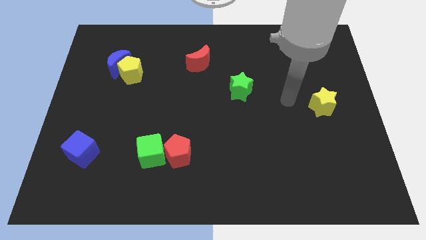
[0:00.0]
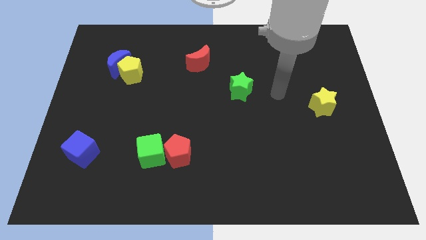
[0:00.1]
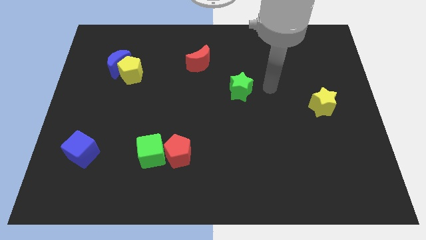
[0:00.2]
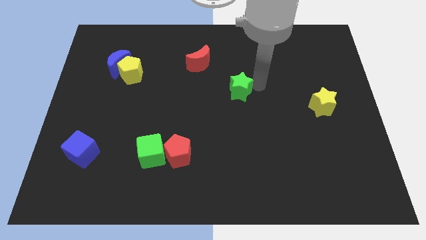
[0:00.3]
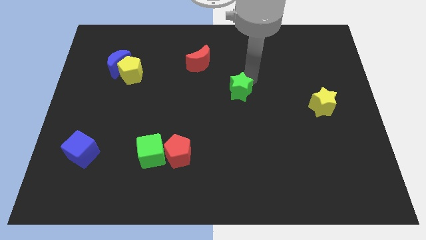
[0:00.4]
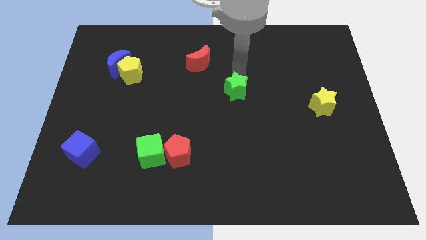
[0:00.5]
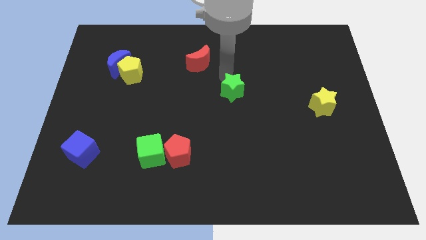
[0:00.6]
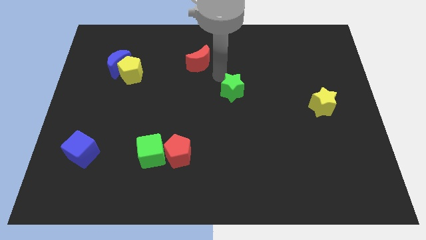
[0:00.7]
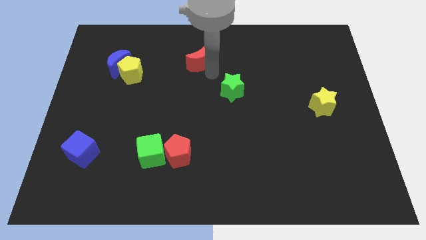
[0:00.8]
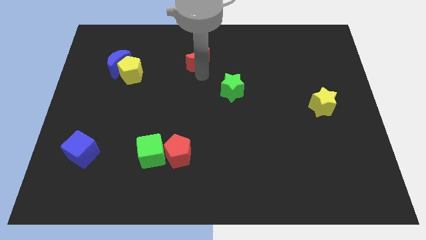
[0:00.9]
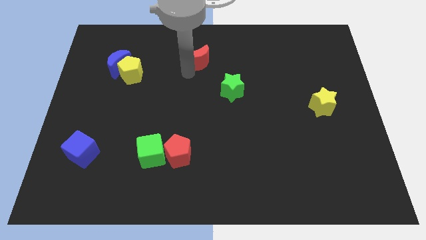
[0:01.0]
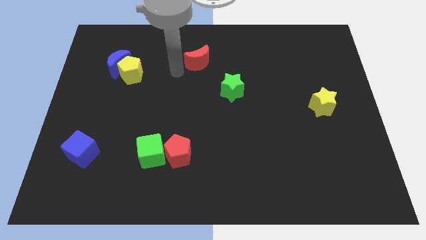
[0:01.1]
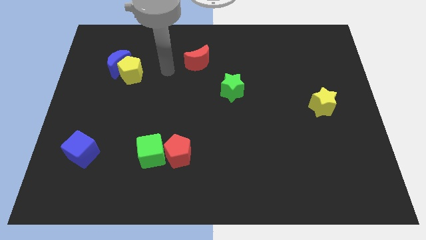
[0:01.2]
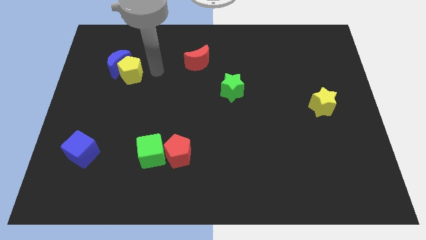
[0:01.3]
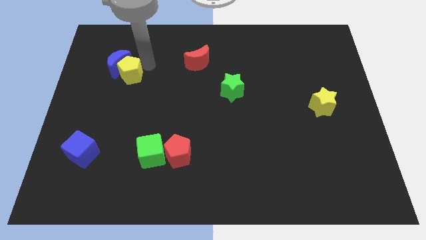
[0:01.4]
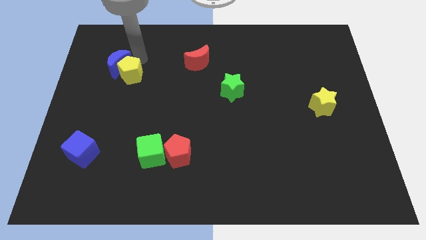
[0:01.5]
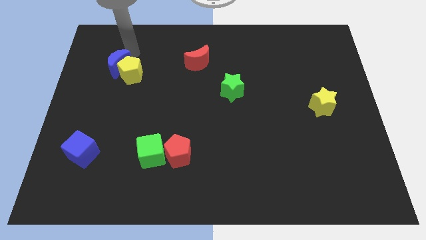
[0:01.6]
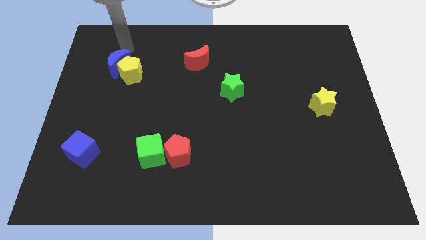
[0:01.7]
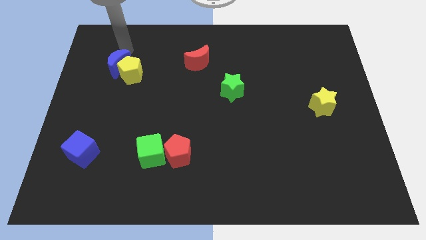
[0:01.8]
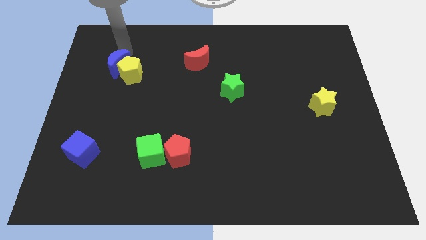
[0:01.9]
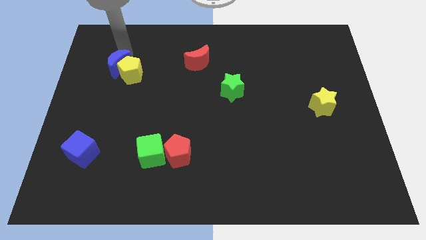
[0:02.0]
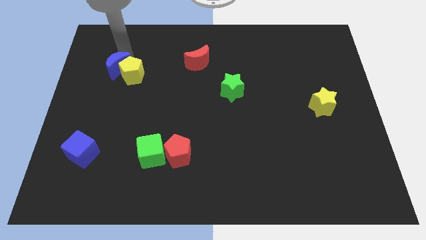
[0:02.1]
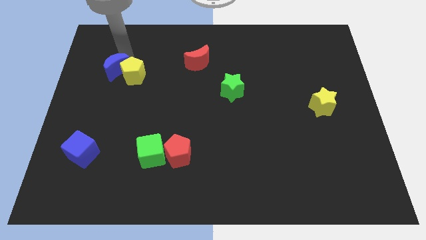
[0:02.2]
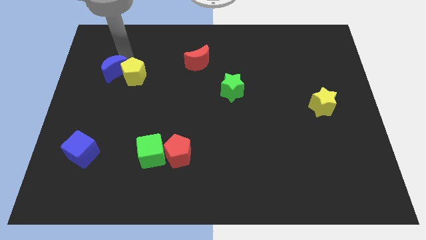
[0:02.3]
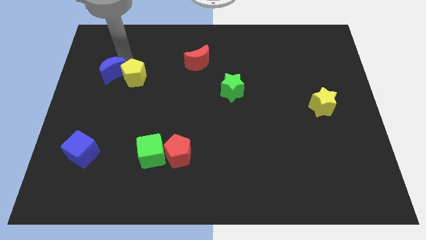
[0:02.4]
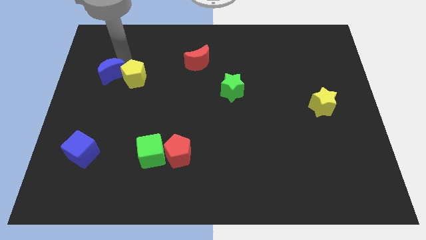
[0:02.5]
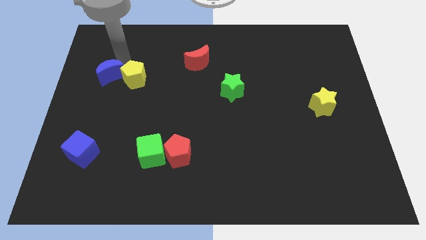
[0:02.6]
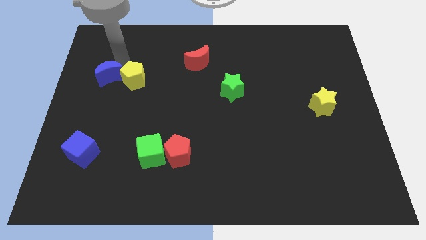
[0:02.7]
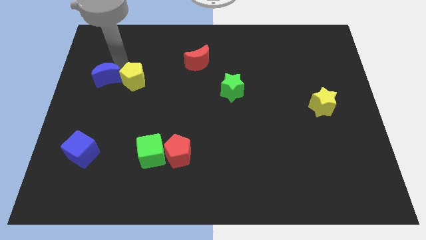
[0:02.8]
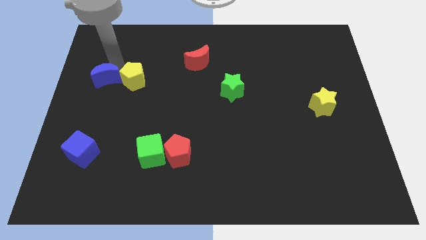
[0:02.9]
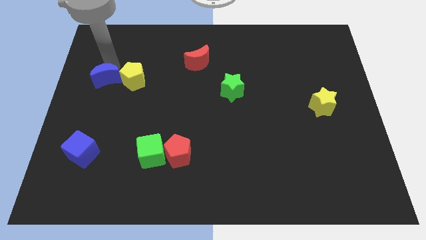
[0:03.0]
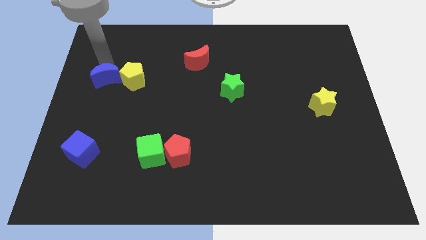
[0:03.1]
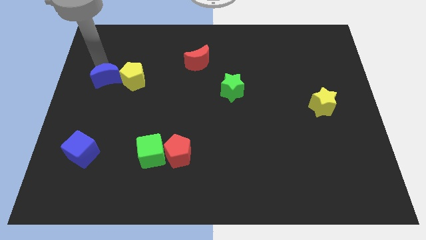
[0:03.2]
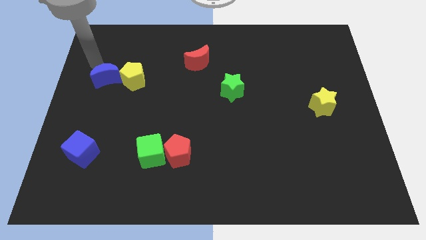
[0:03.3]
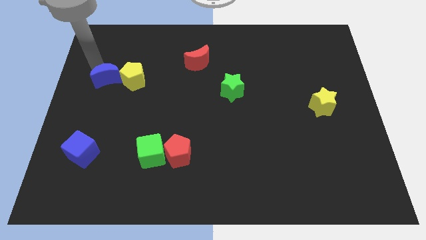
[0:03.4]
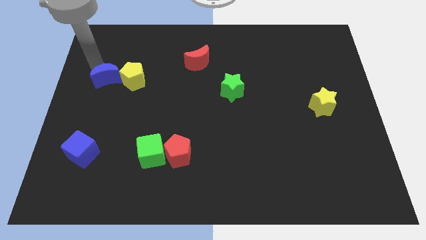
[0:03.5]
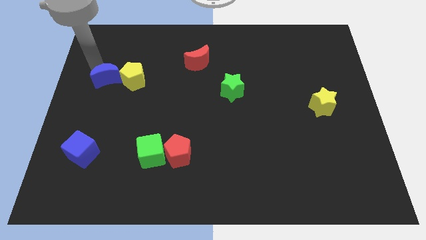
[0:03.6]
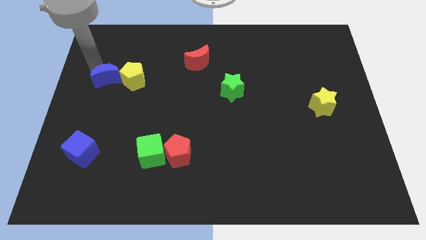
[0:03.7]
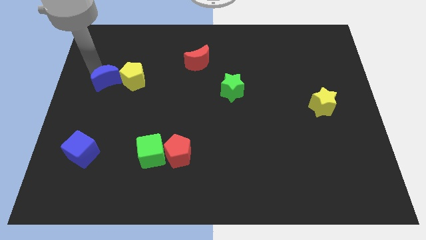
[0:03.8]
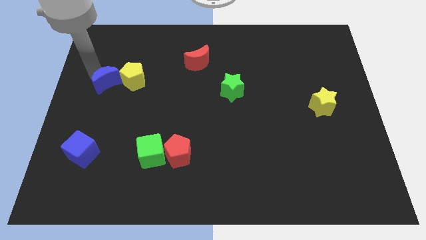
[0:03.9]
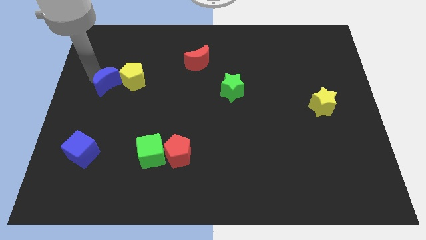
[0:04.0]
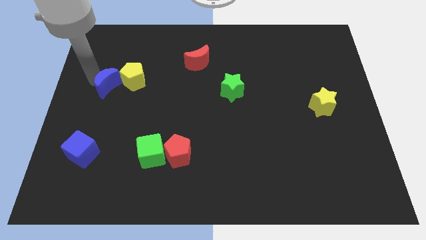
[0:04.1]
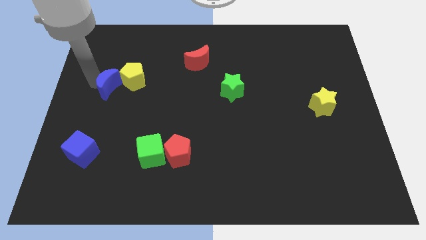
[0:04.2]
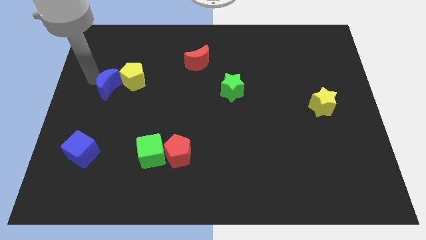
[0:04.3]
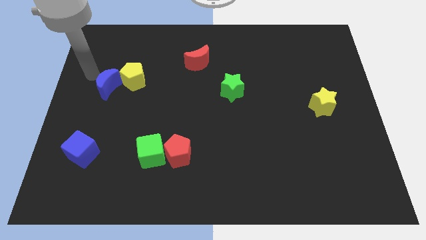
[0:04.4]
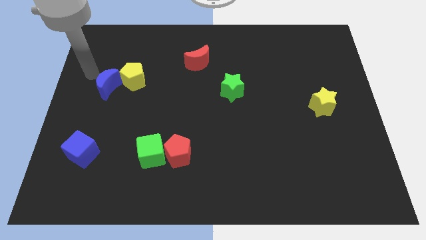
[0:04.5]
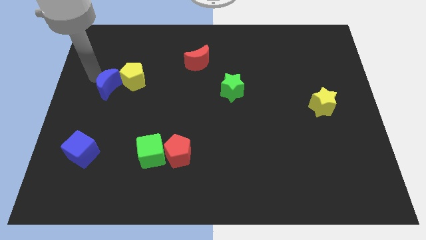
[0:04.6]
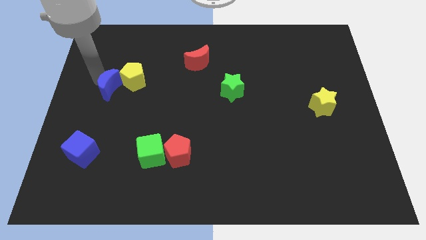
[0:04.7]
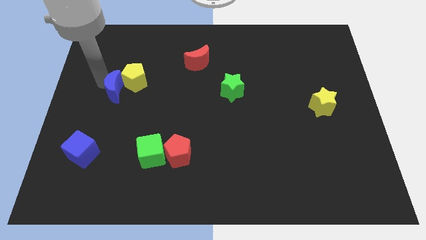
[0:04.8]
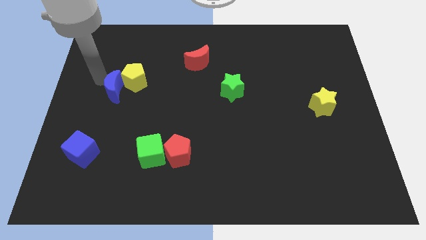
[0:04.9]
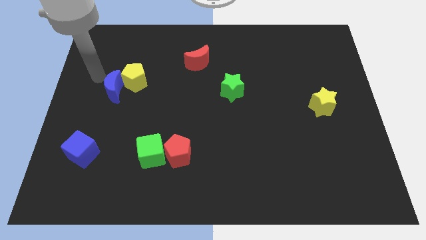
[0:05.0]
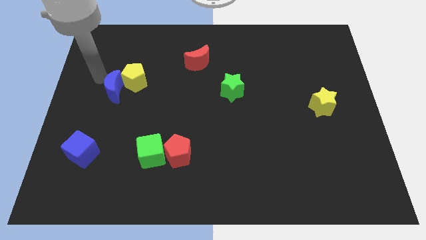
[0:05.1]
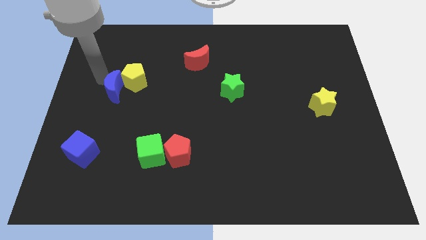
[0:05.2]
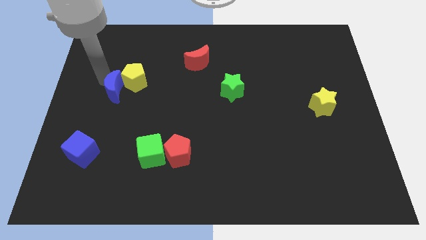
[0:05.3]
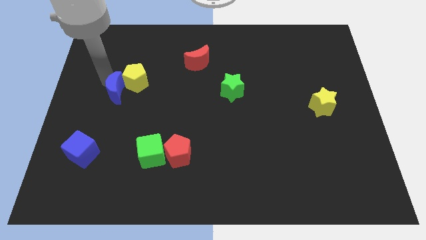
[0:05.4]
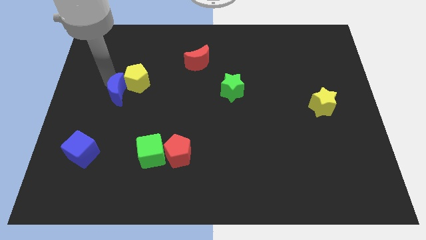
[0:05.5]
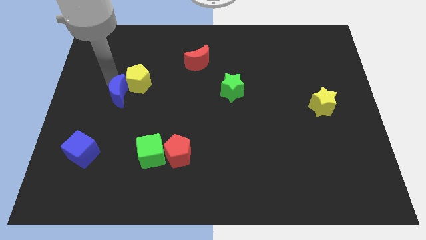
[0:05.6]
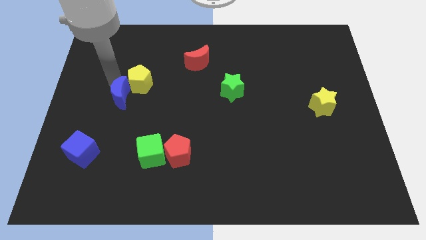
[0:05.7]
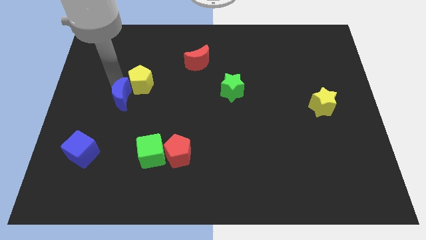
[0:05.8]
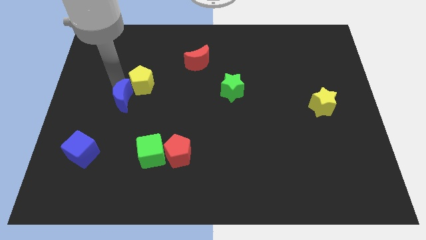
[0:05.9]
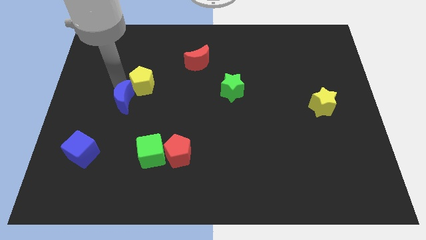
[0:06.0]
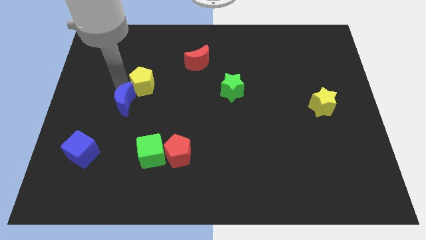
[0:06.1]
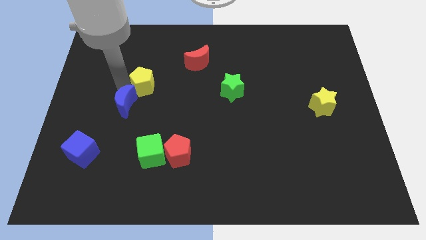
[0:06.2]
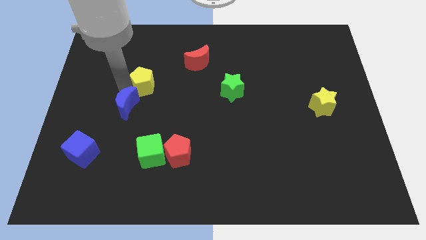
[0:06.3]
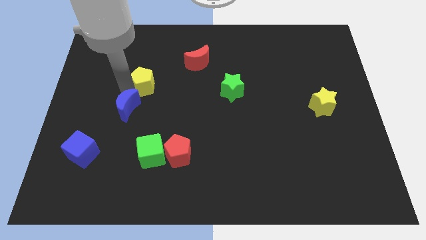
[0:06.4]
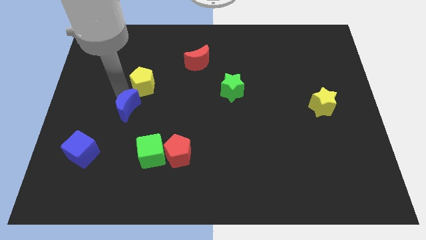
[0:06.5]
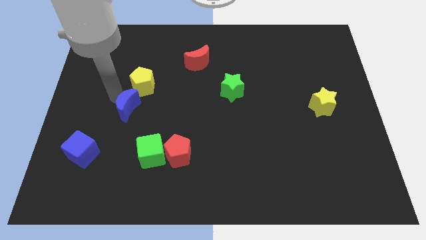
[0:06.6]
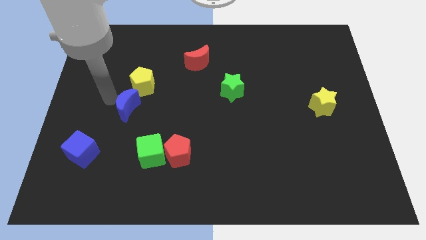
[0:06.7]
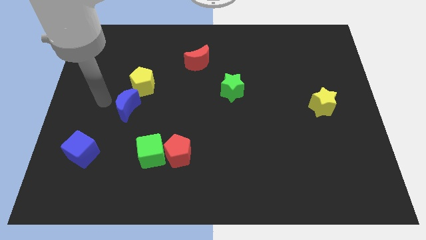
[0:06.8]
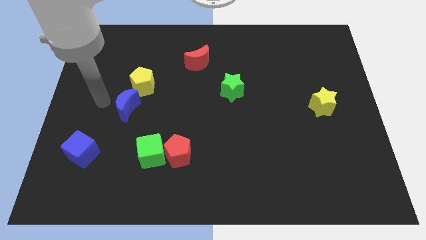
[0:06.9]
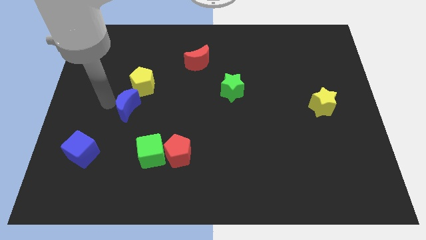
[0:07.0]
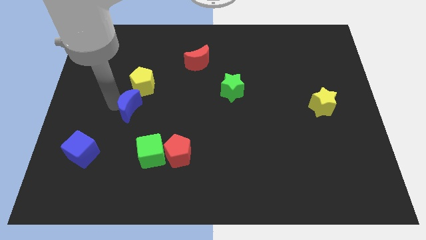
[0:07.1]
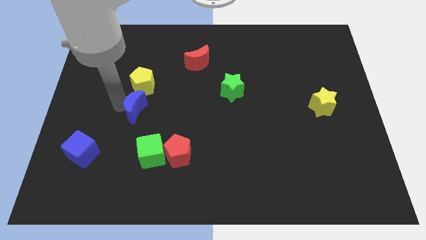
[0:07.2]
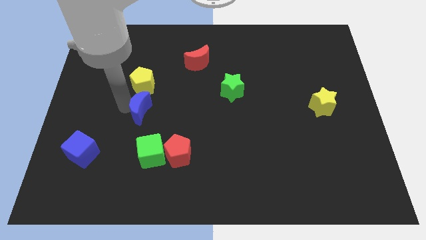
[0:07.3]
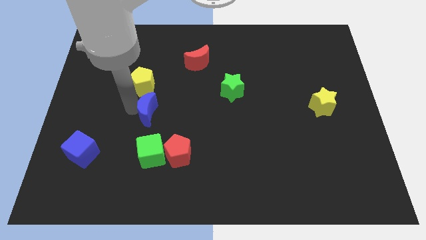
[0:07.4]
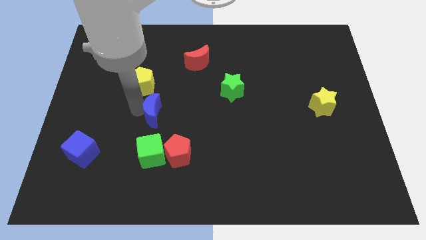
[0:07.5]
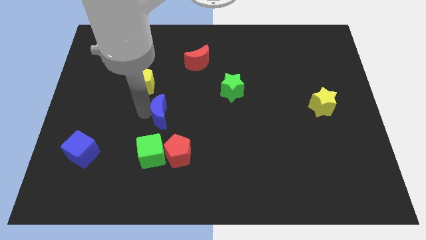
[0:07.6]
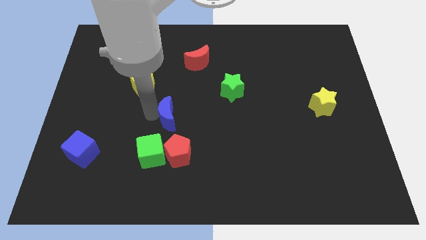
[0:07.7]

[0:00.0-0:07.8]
push the blue moon to the top of the red pentagon
